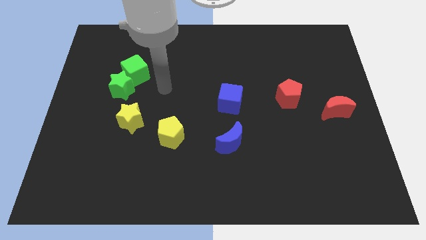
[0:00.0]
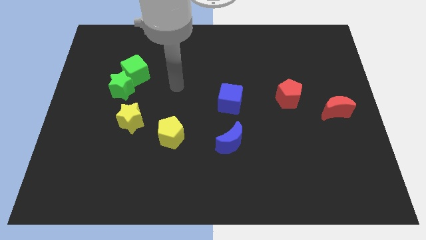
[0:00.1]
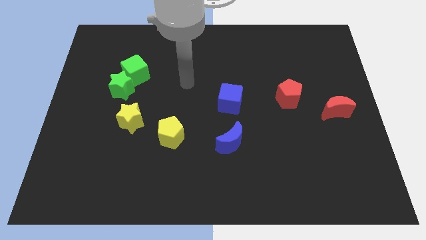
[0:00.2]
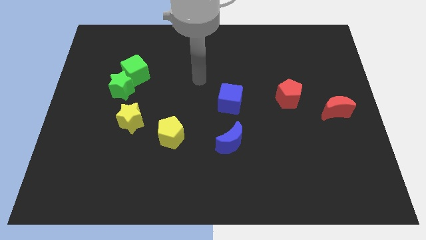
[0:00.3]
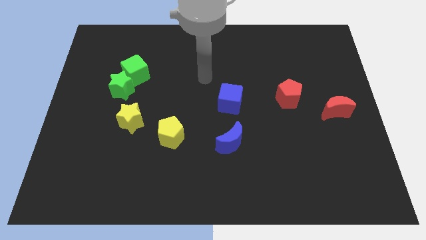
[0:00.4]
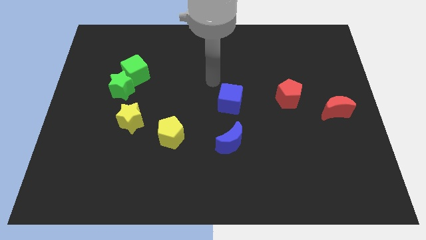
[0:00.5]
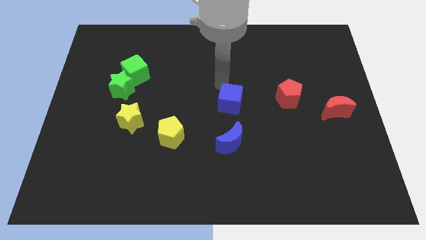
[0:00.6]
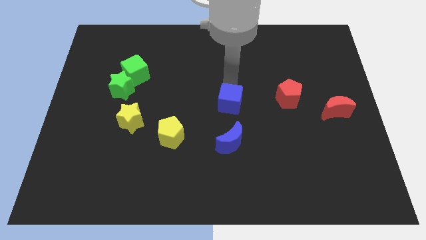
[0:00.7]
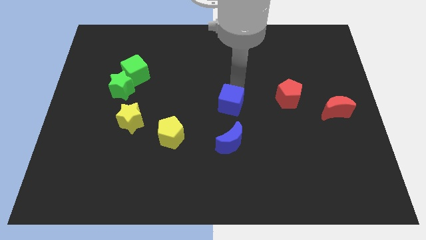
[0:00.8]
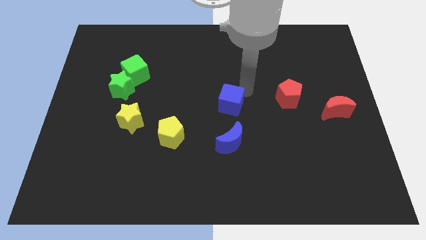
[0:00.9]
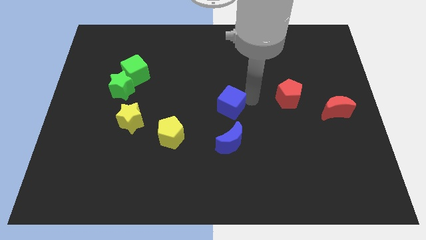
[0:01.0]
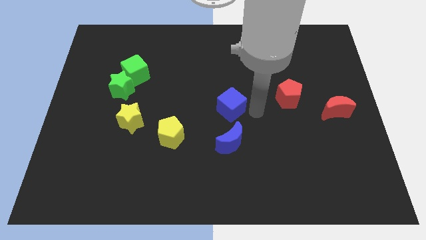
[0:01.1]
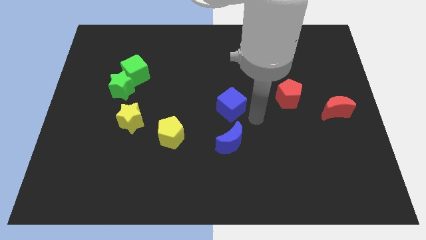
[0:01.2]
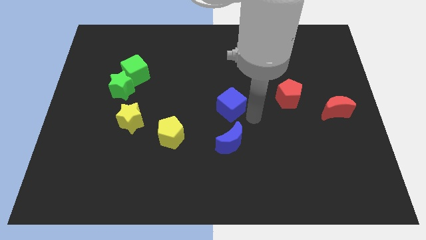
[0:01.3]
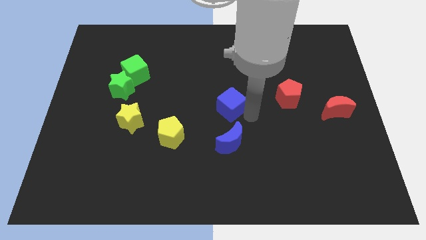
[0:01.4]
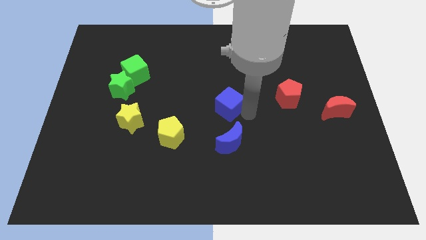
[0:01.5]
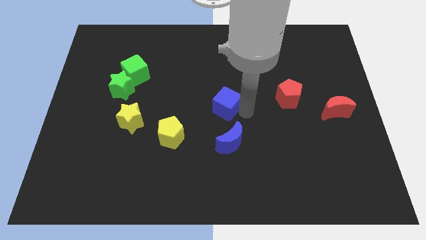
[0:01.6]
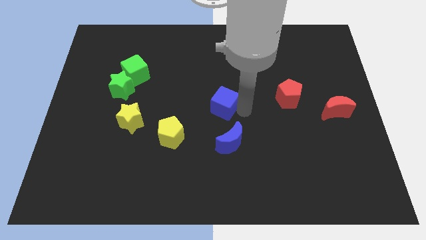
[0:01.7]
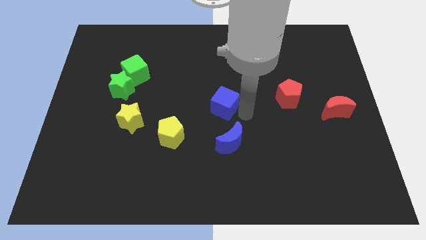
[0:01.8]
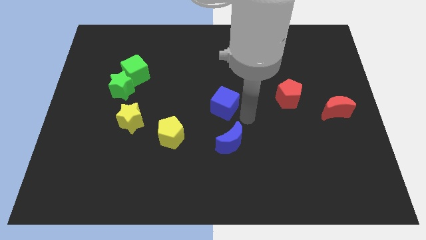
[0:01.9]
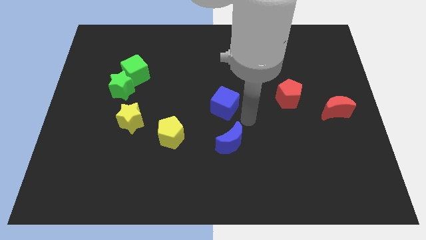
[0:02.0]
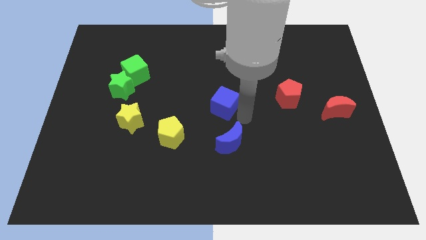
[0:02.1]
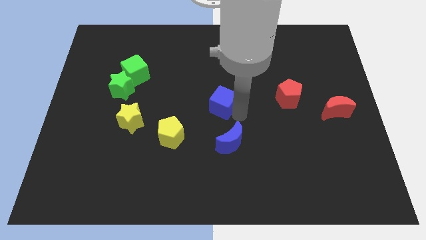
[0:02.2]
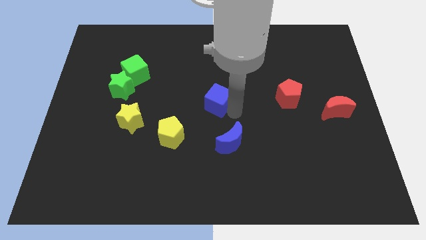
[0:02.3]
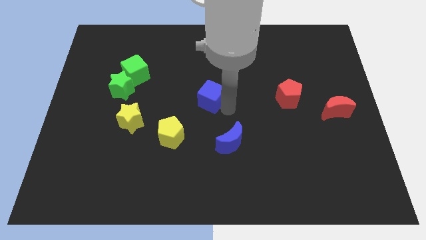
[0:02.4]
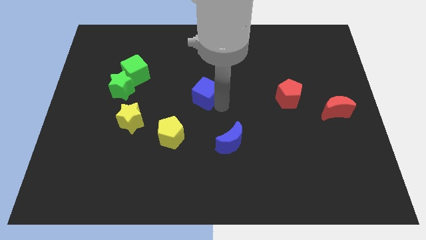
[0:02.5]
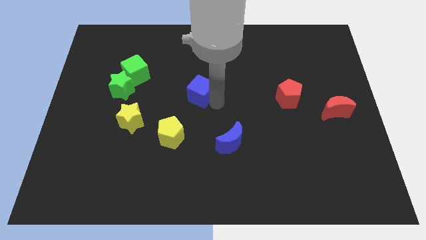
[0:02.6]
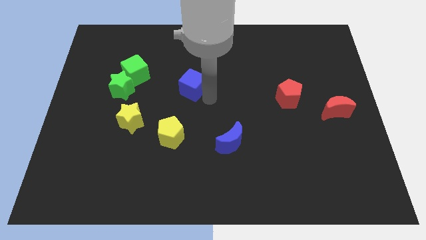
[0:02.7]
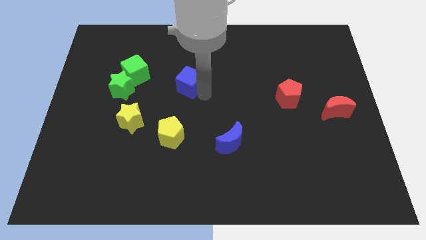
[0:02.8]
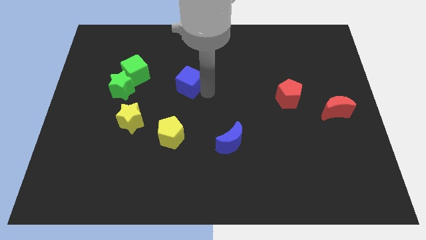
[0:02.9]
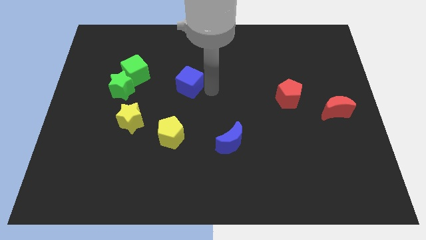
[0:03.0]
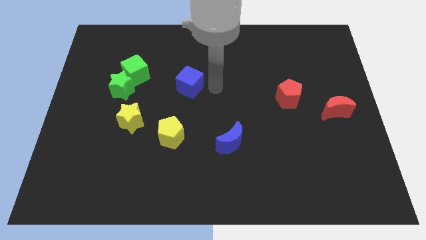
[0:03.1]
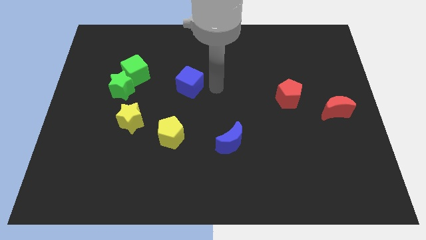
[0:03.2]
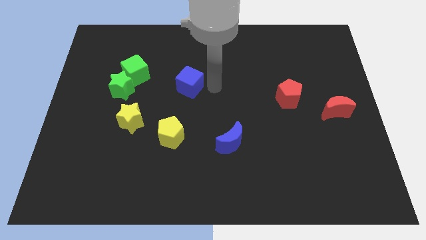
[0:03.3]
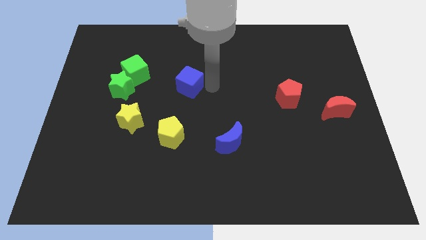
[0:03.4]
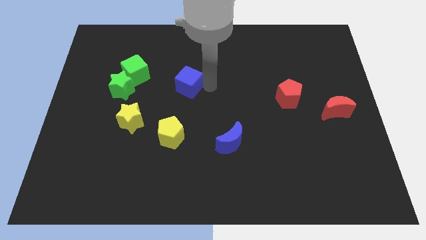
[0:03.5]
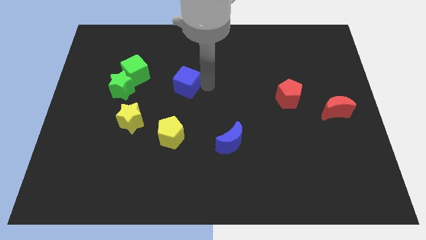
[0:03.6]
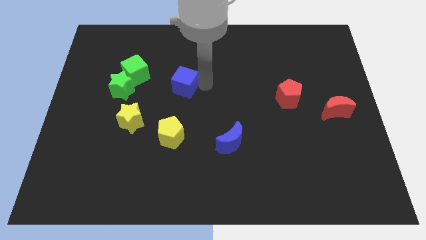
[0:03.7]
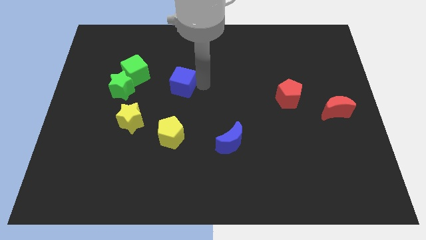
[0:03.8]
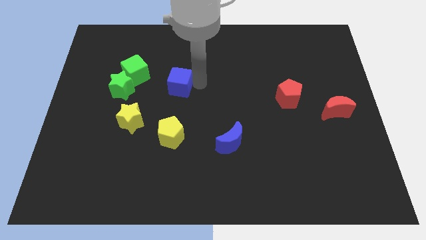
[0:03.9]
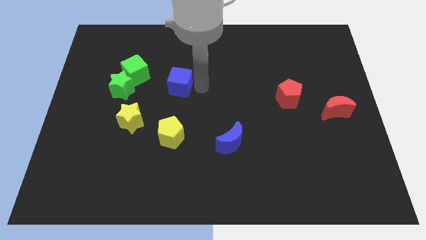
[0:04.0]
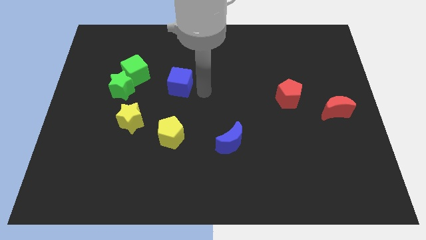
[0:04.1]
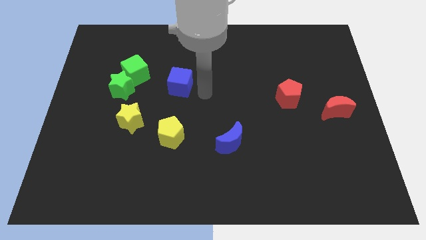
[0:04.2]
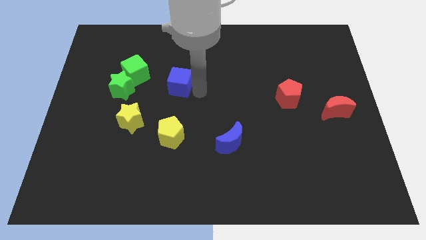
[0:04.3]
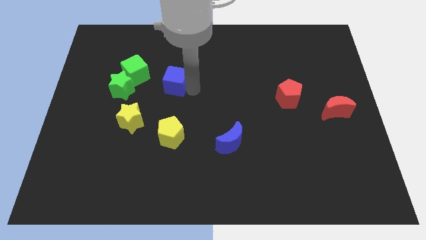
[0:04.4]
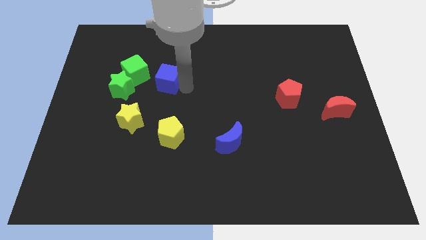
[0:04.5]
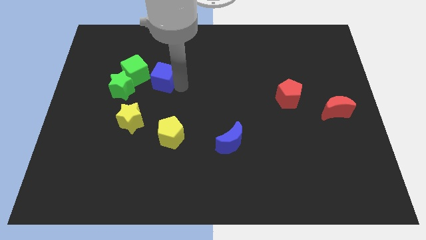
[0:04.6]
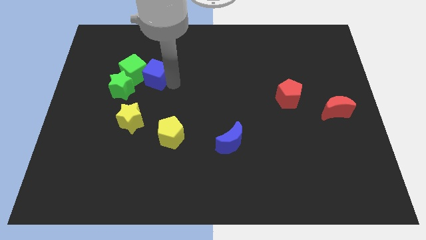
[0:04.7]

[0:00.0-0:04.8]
push the blue cube close to the green cube

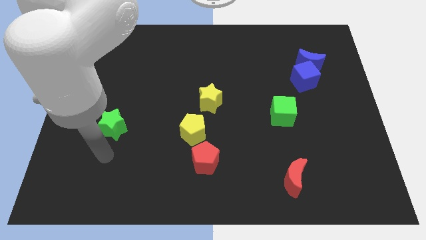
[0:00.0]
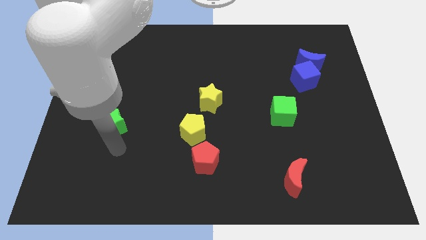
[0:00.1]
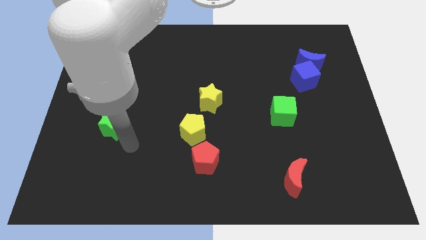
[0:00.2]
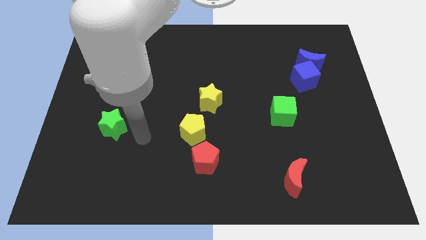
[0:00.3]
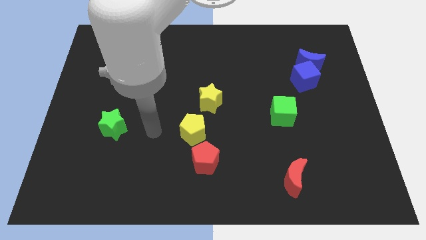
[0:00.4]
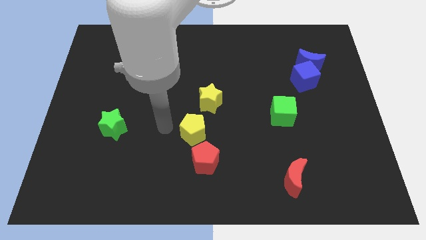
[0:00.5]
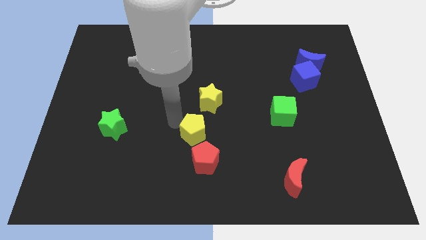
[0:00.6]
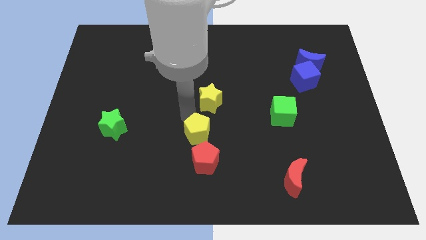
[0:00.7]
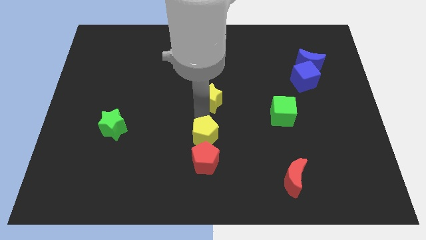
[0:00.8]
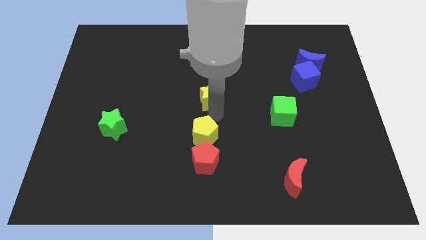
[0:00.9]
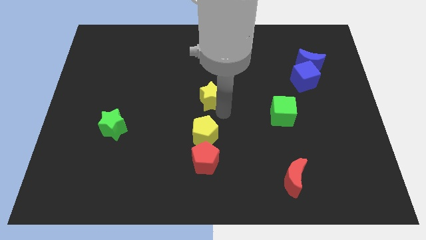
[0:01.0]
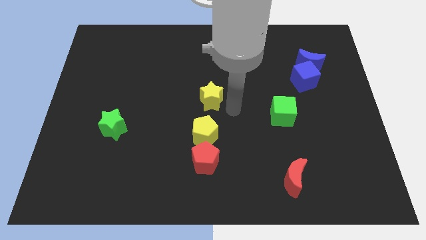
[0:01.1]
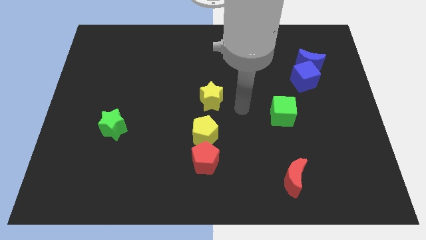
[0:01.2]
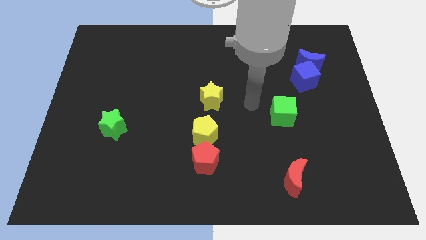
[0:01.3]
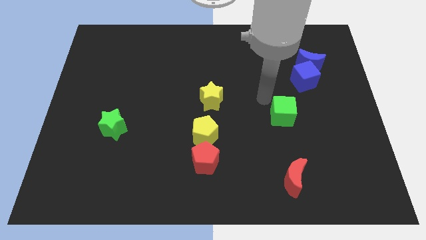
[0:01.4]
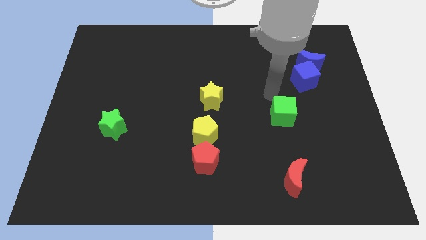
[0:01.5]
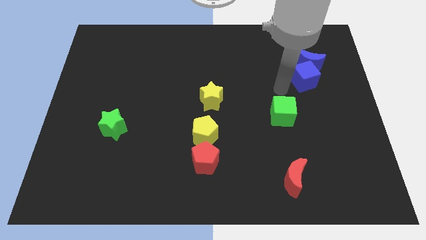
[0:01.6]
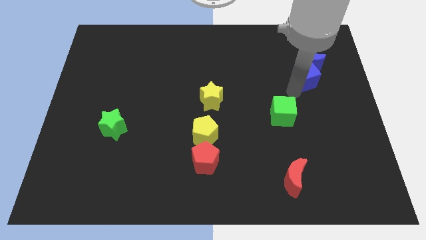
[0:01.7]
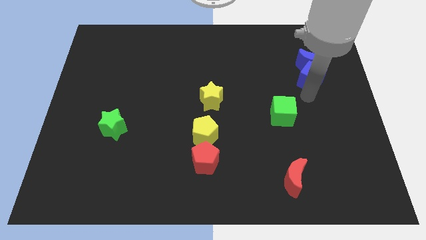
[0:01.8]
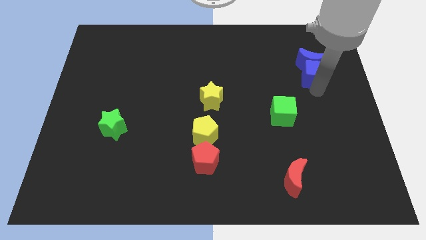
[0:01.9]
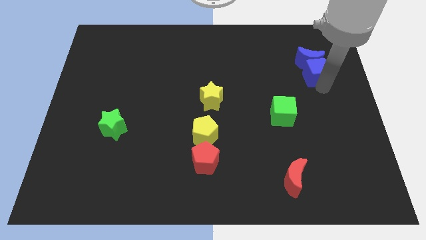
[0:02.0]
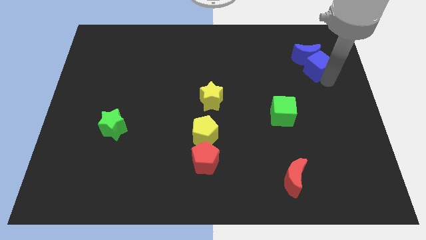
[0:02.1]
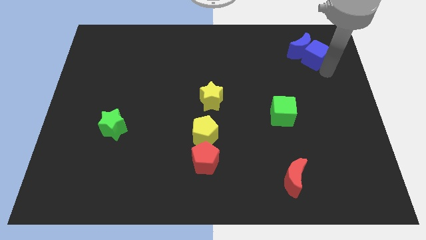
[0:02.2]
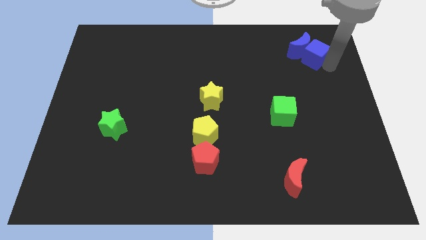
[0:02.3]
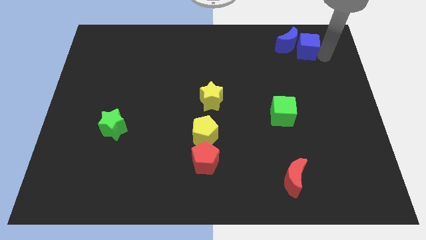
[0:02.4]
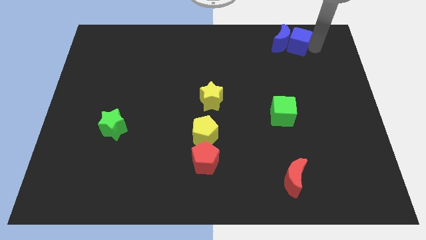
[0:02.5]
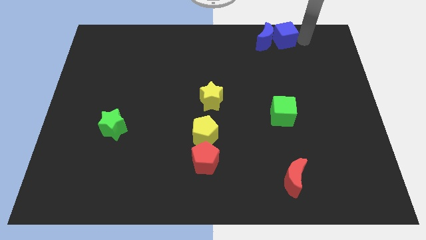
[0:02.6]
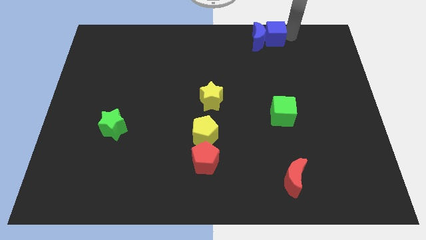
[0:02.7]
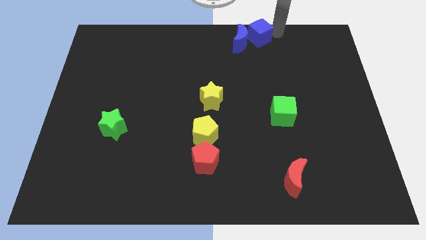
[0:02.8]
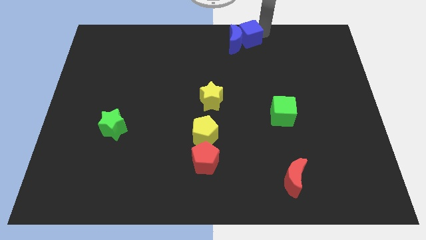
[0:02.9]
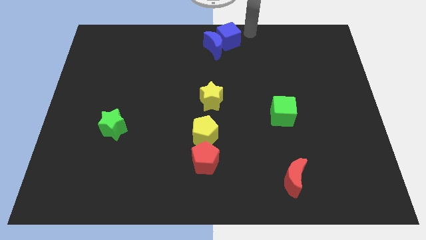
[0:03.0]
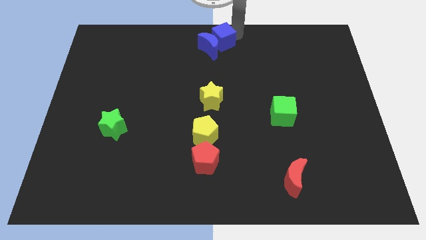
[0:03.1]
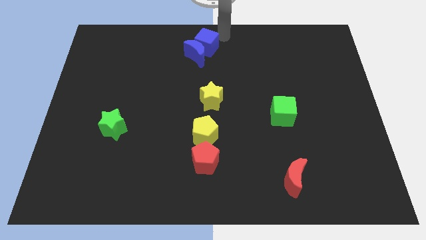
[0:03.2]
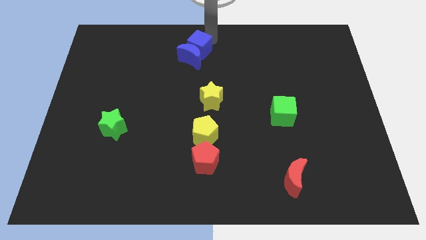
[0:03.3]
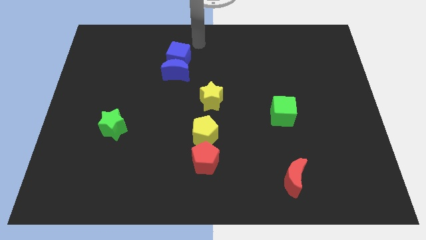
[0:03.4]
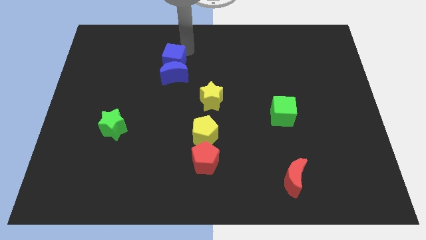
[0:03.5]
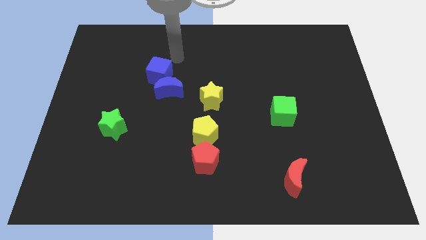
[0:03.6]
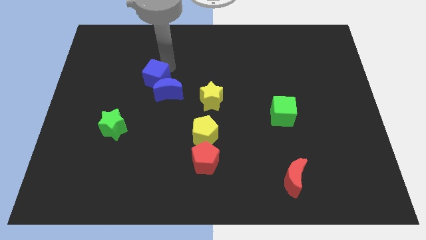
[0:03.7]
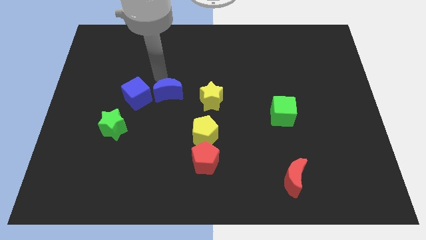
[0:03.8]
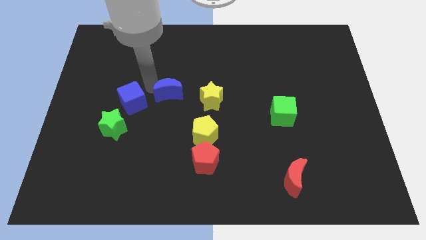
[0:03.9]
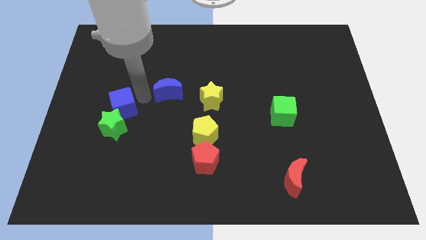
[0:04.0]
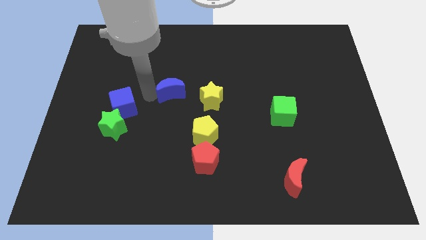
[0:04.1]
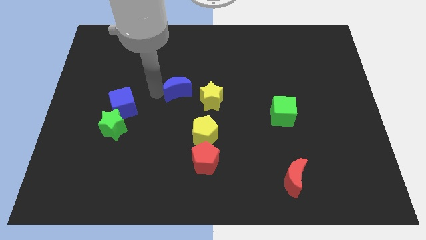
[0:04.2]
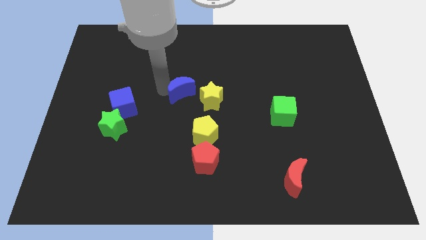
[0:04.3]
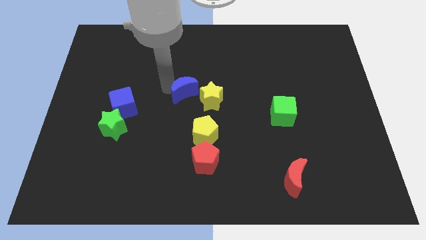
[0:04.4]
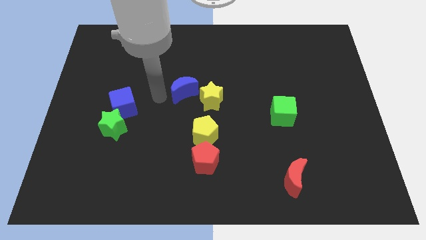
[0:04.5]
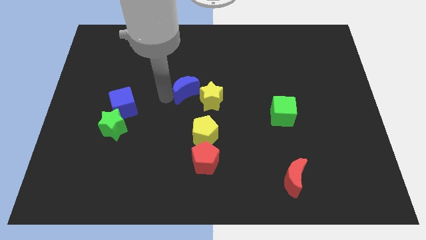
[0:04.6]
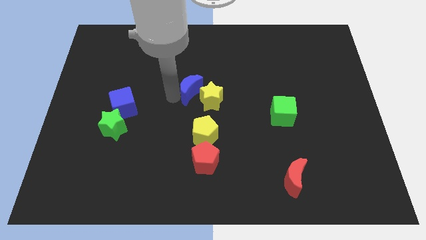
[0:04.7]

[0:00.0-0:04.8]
put the blue moon towards the yellow star
